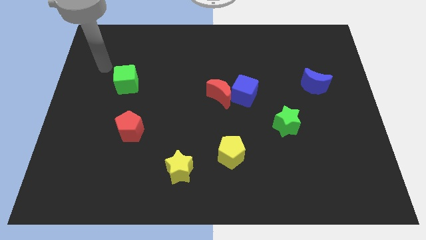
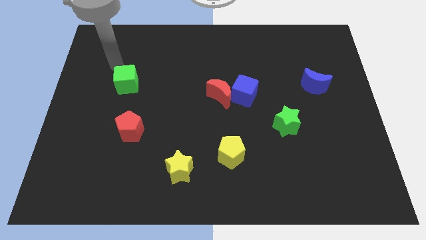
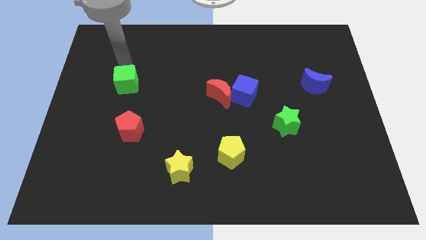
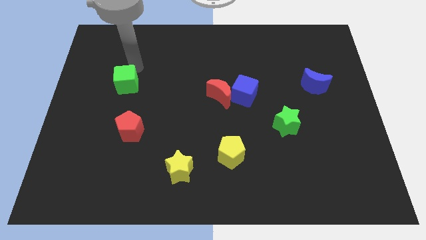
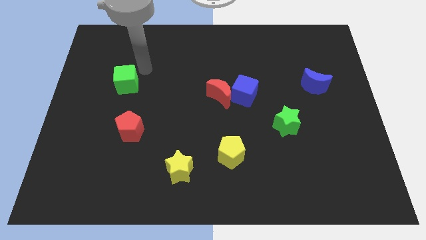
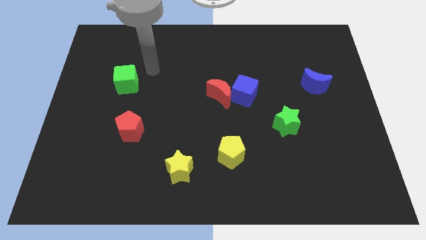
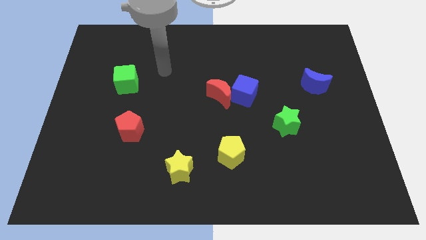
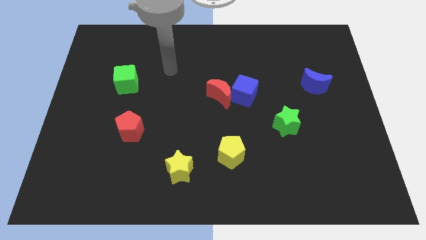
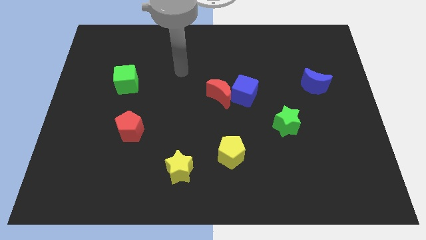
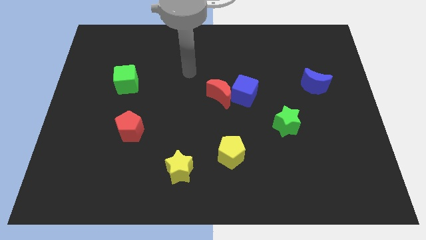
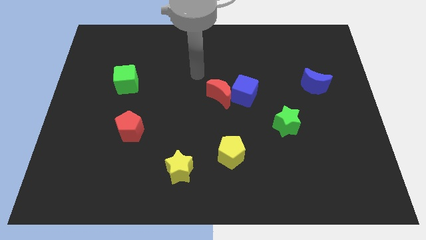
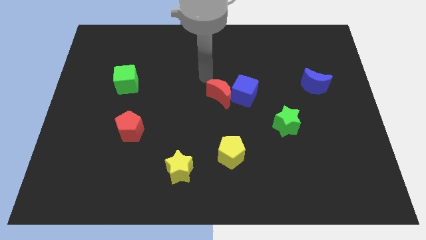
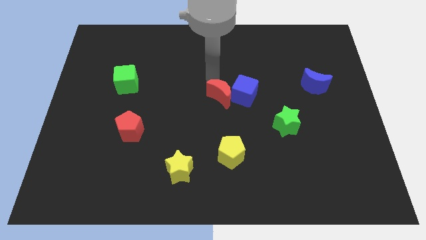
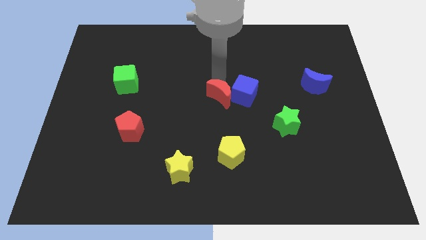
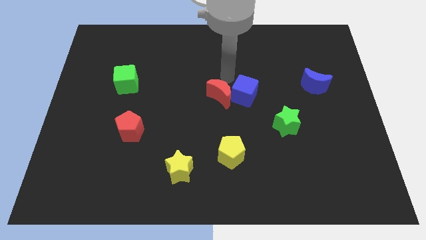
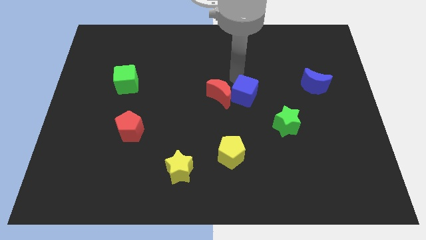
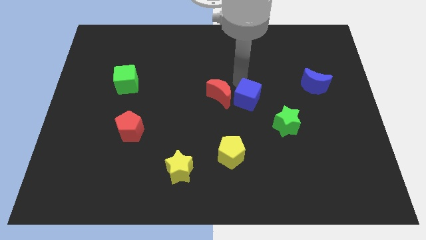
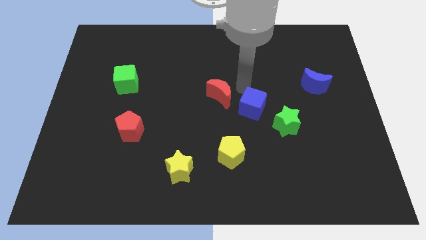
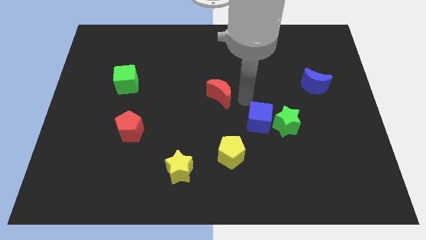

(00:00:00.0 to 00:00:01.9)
pull the red moon apart from the blue cube

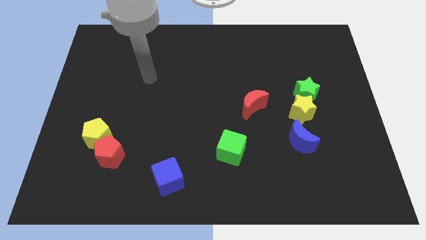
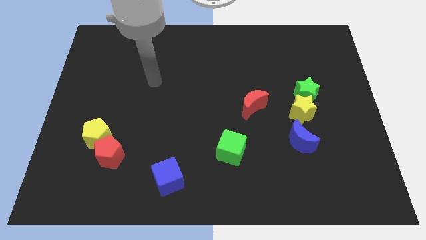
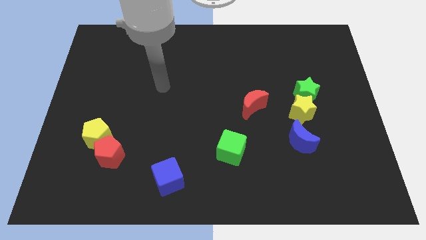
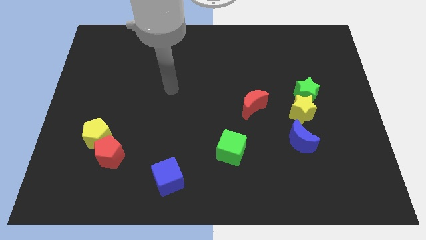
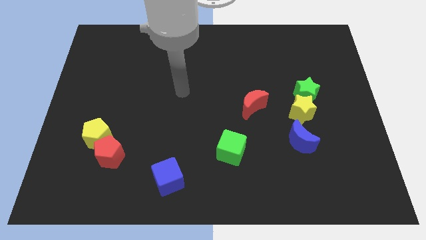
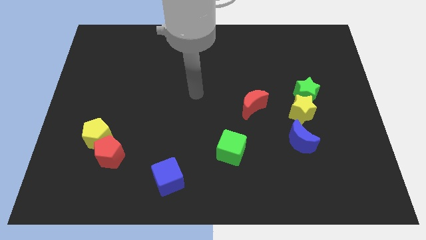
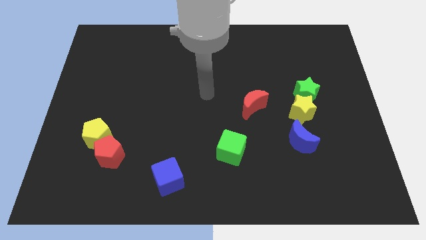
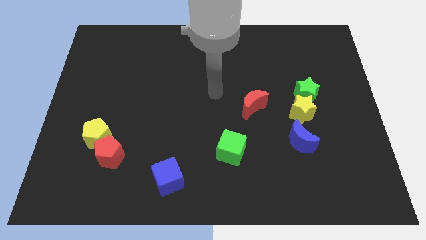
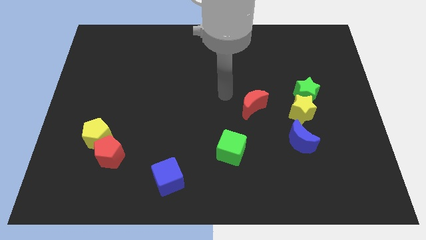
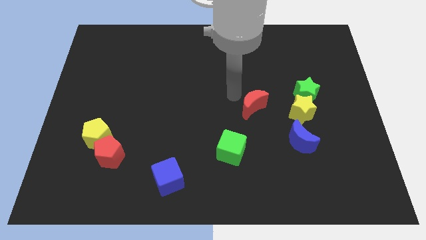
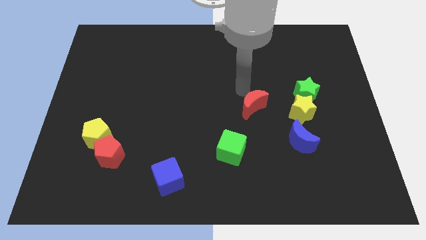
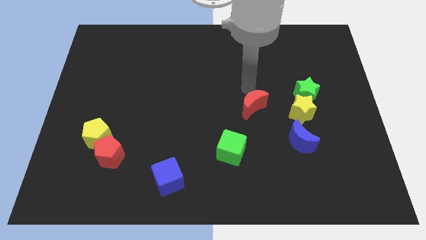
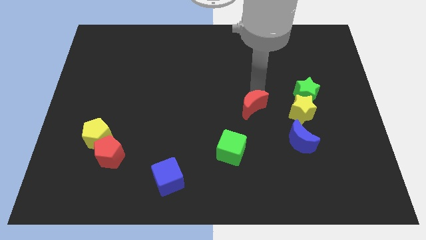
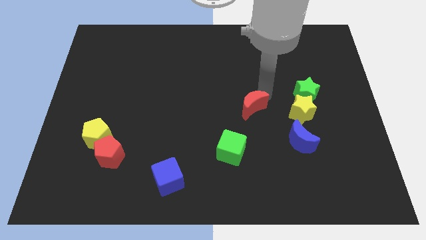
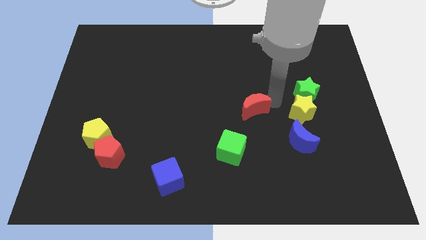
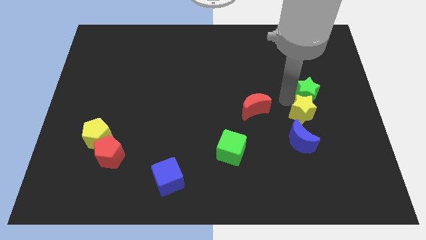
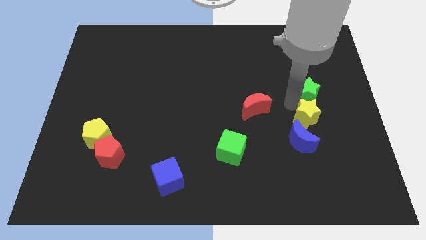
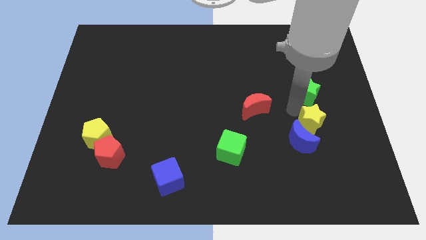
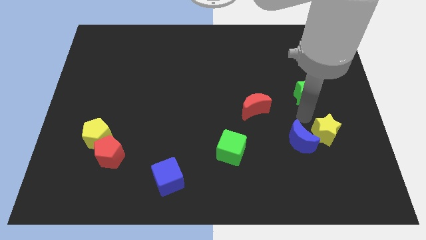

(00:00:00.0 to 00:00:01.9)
pull the green star apart from the yellow star

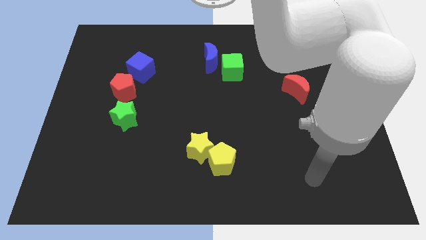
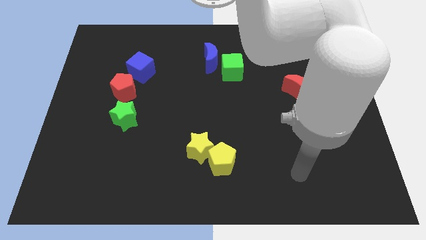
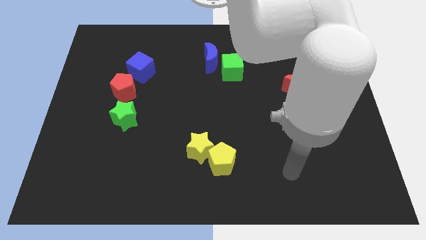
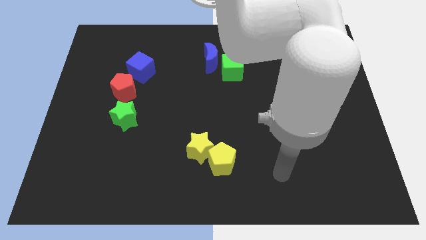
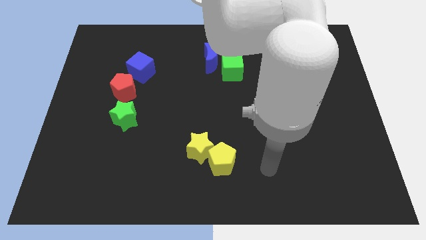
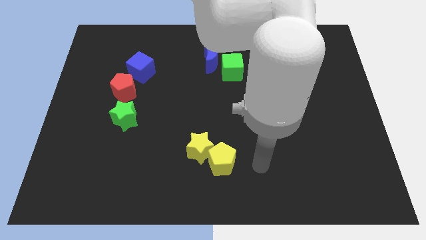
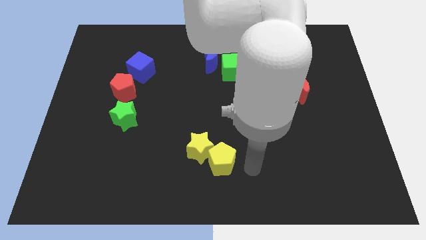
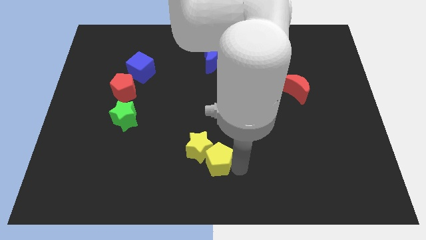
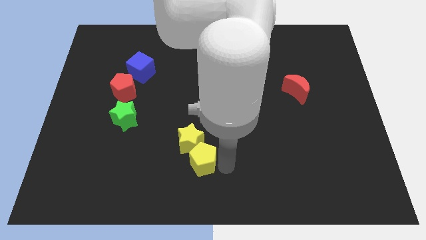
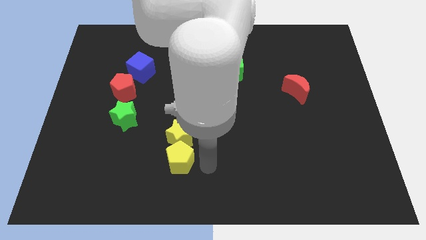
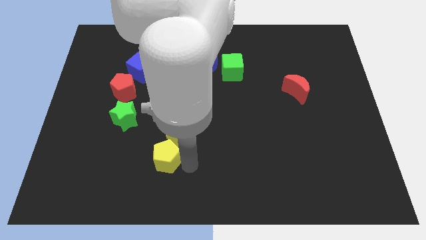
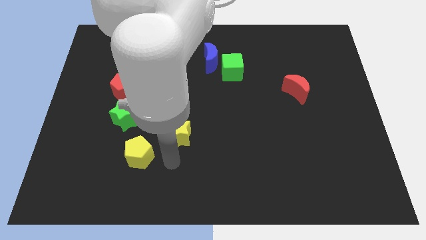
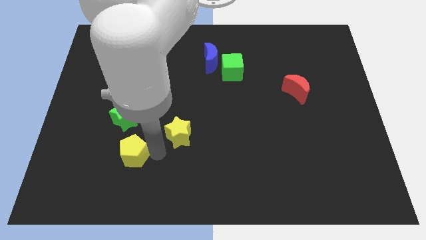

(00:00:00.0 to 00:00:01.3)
separate the yellow star from the yellow pentagon

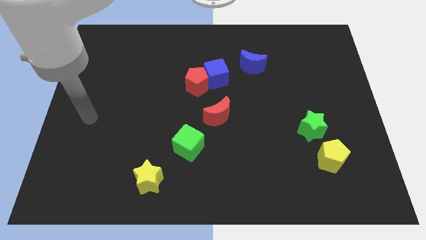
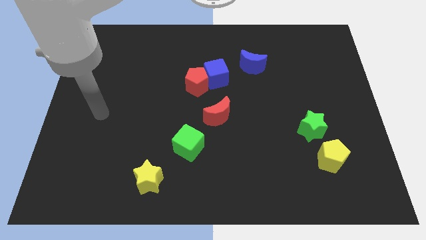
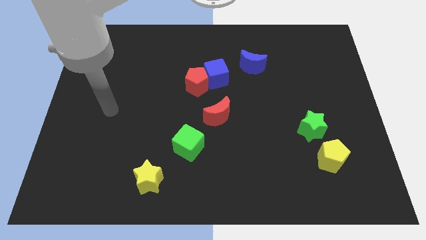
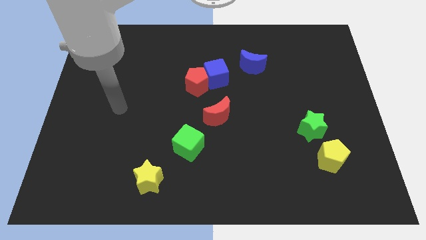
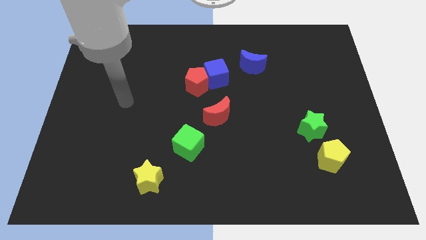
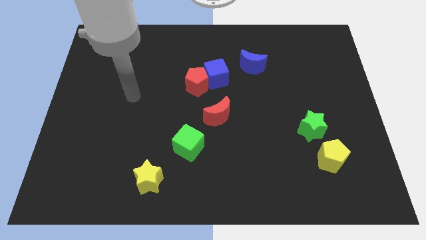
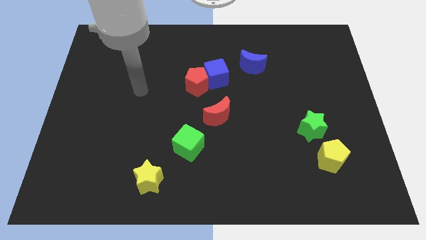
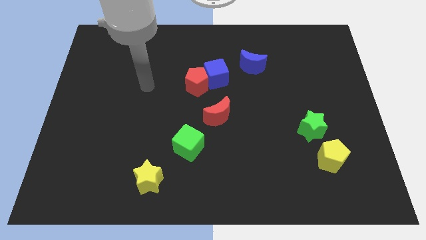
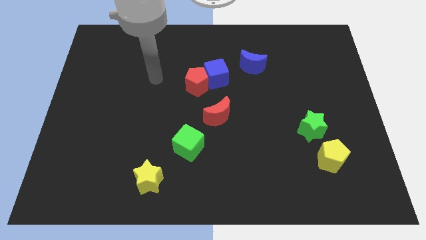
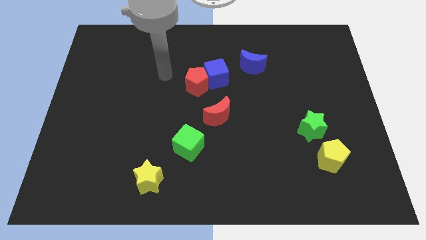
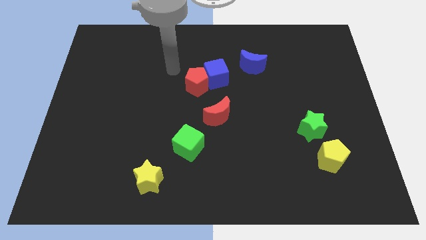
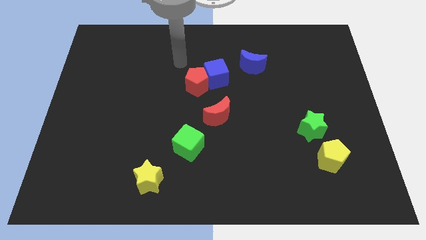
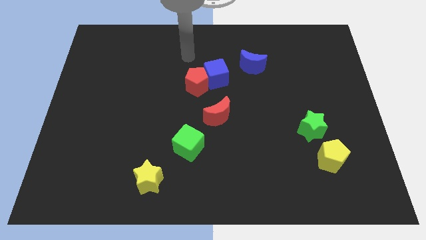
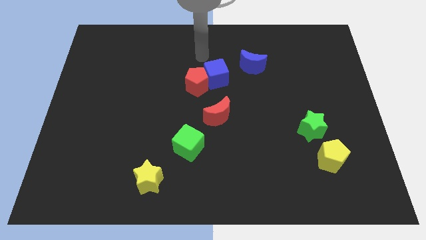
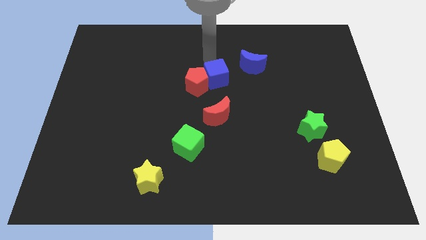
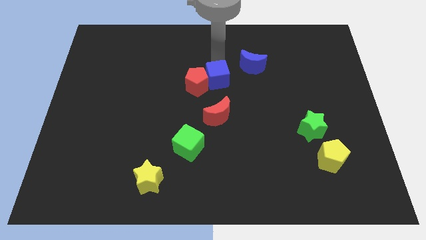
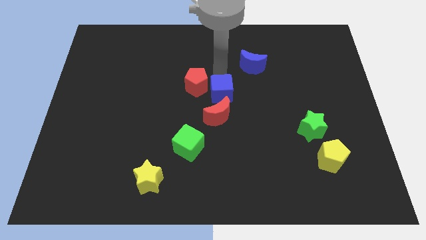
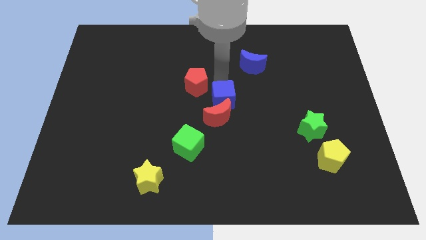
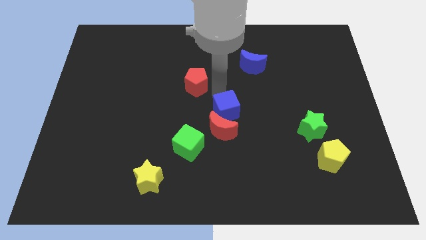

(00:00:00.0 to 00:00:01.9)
separate the red pentagon from the blue cube

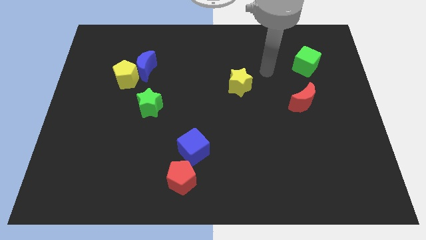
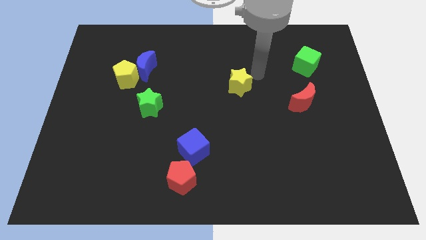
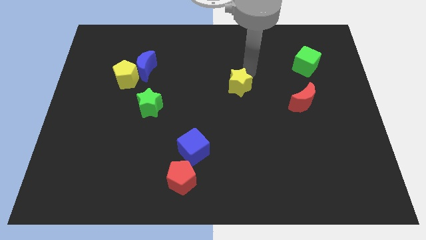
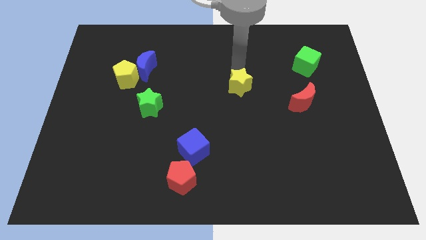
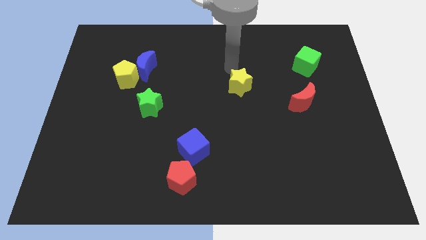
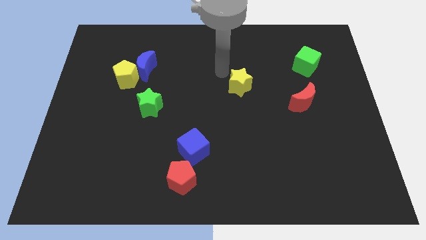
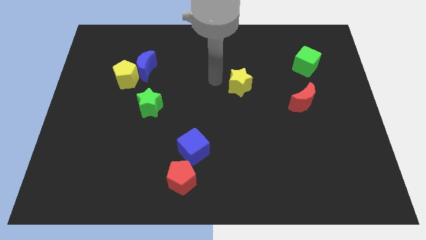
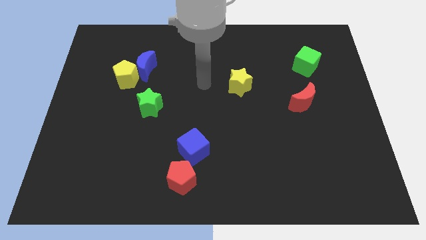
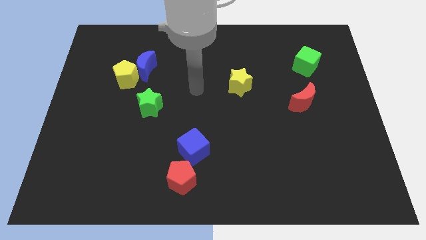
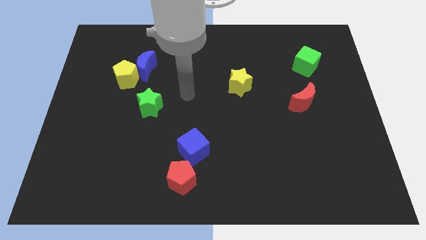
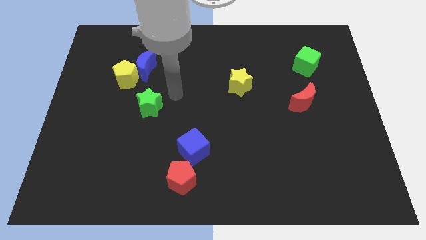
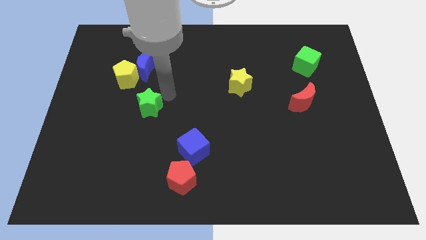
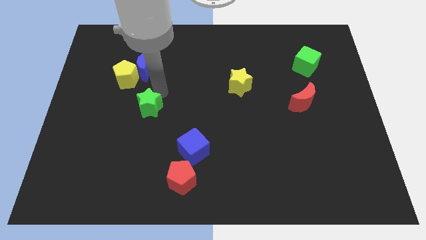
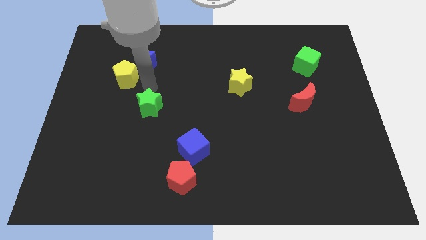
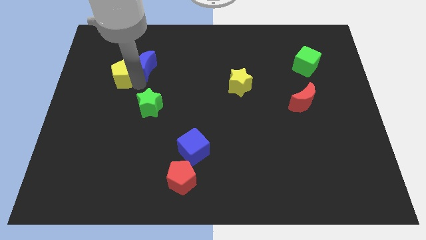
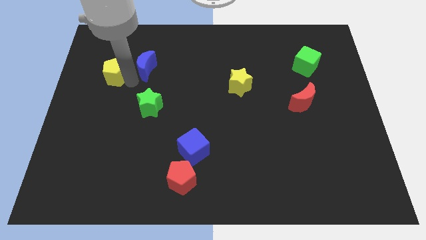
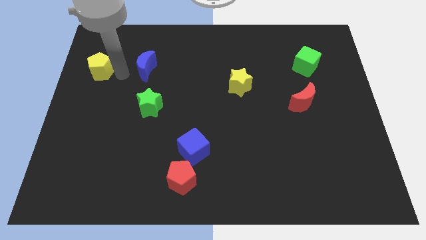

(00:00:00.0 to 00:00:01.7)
pull the blue moon apart from the yellow pentagon

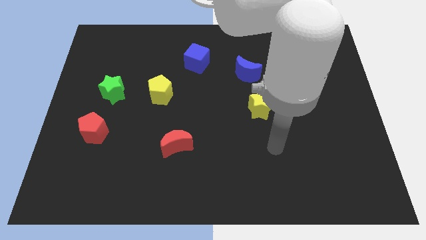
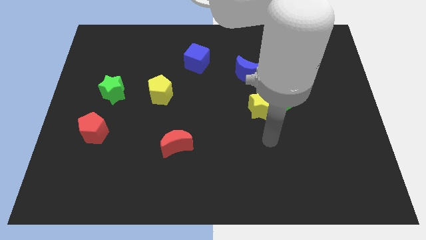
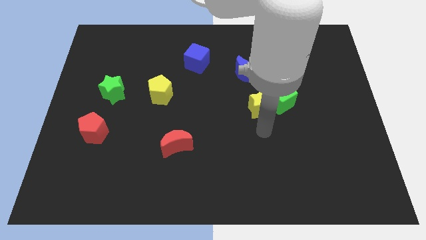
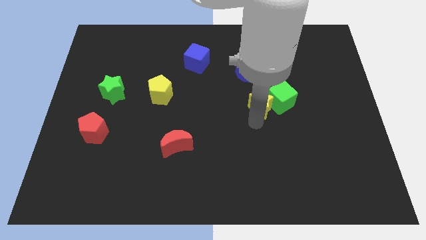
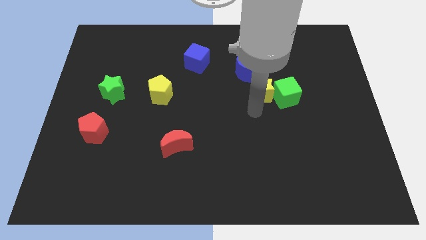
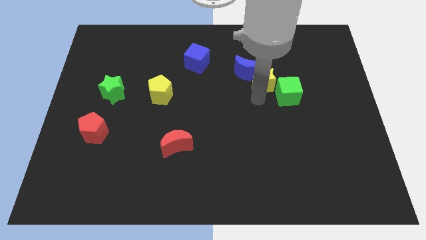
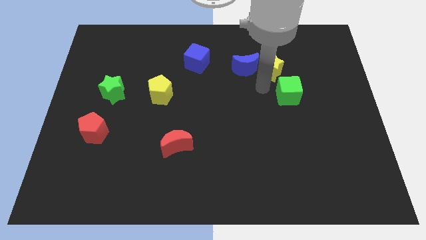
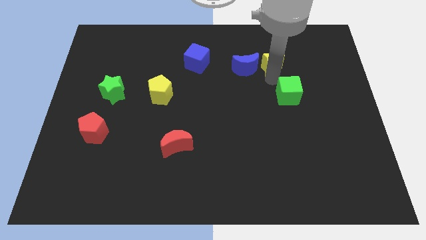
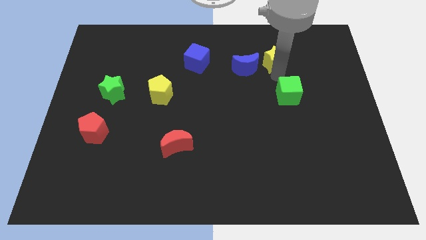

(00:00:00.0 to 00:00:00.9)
pull the green cube apart from the yellow star
